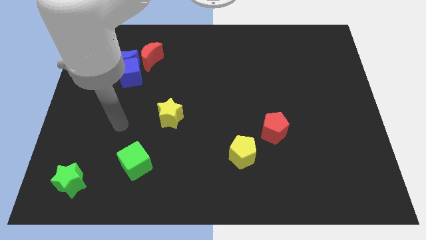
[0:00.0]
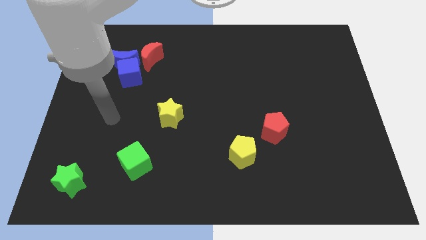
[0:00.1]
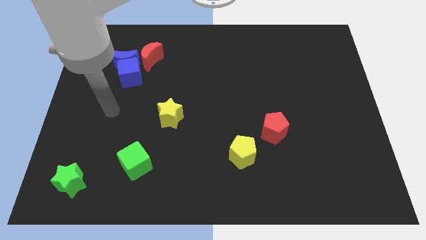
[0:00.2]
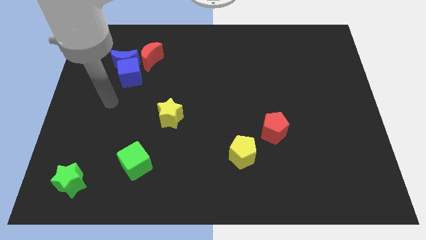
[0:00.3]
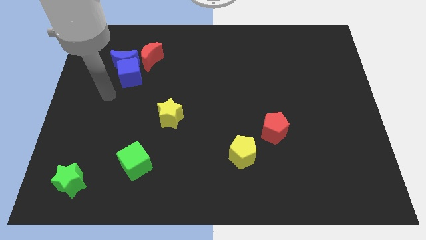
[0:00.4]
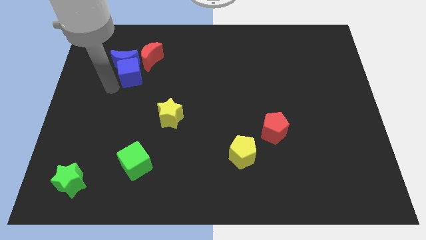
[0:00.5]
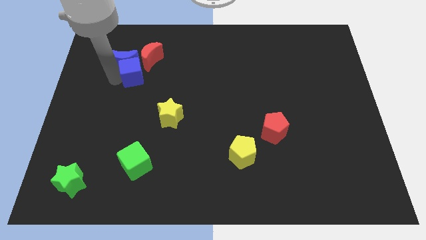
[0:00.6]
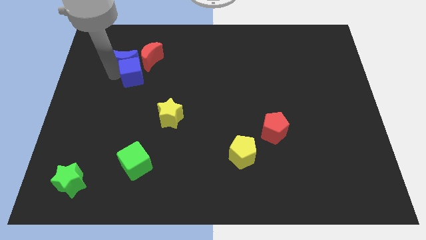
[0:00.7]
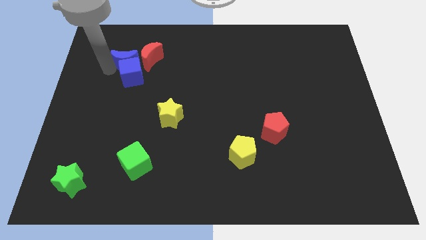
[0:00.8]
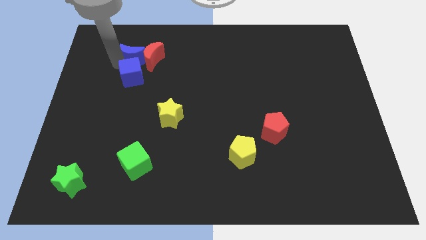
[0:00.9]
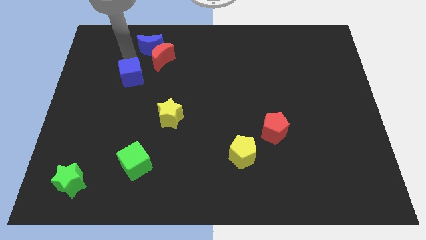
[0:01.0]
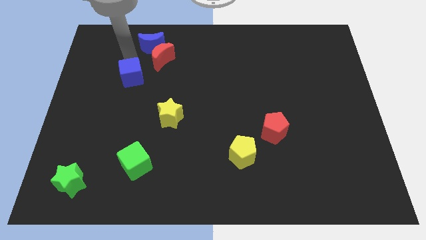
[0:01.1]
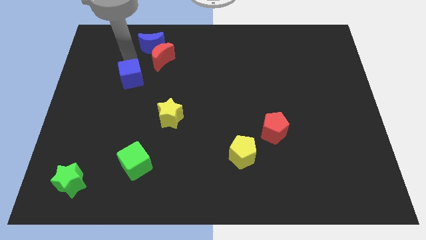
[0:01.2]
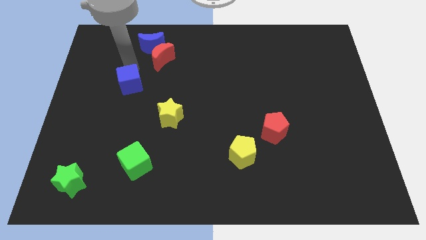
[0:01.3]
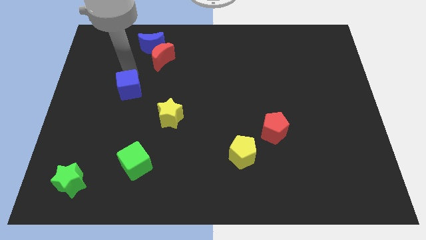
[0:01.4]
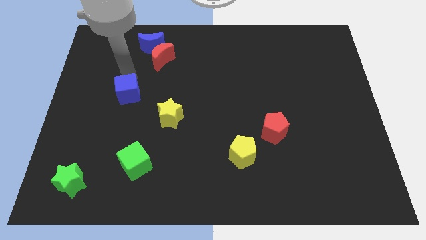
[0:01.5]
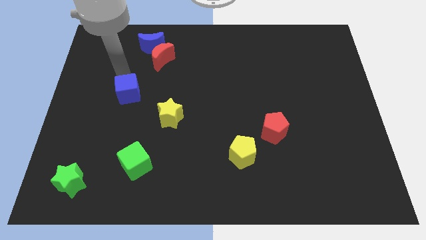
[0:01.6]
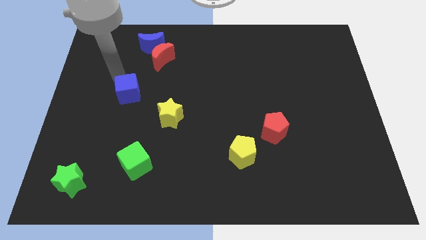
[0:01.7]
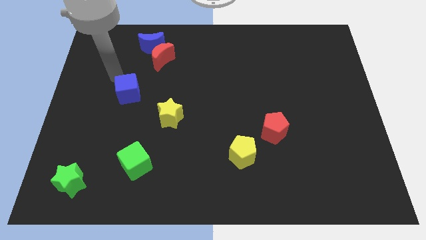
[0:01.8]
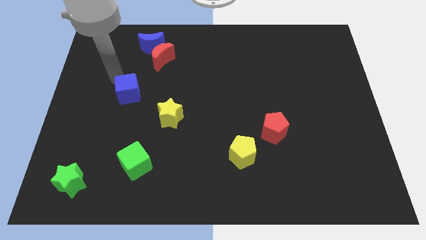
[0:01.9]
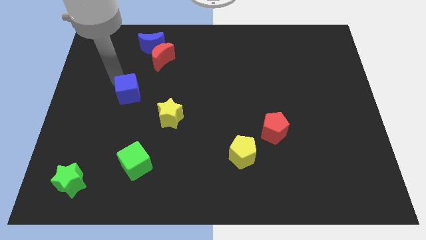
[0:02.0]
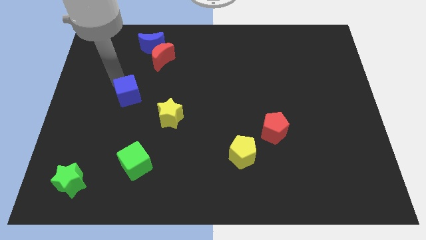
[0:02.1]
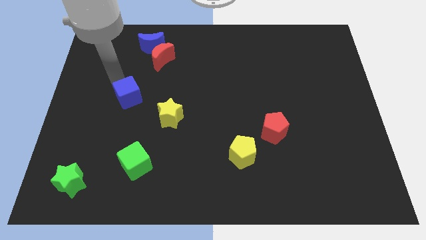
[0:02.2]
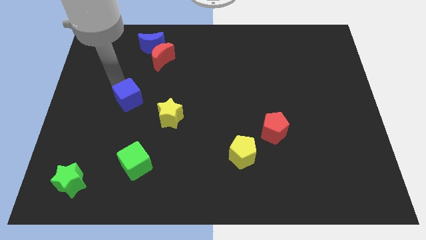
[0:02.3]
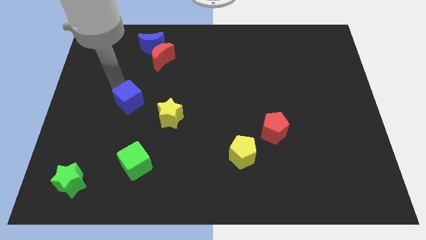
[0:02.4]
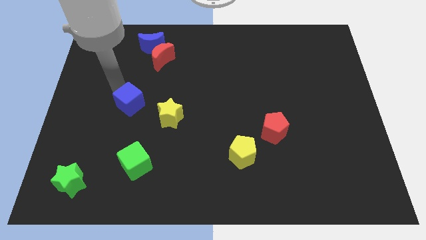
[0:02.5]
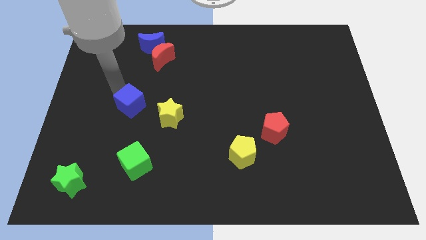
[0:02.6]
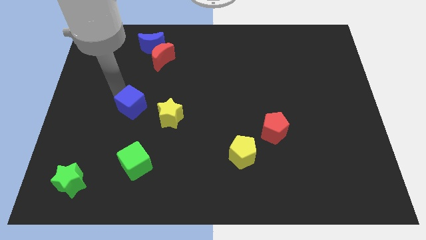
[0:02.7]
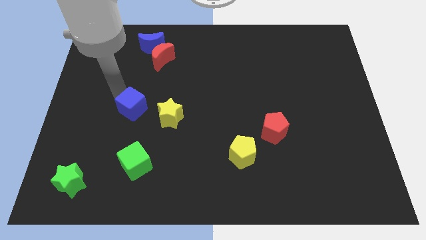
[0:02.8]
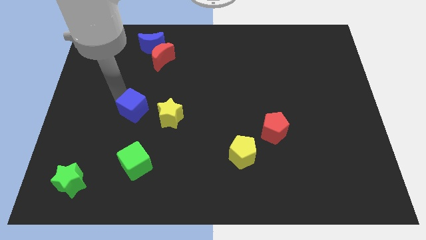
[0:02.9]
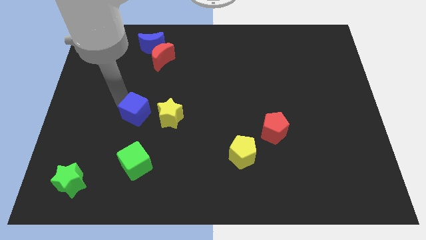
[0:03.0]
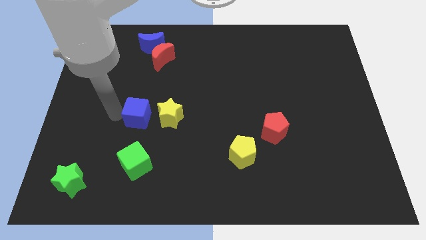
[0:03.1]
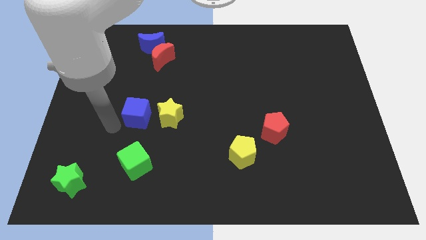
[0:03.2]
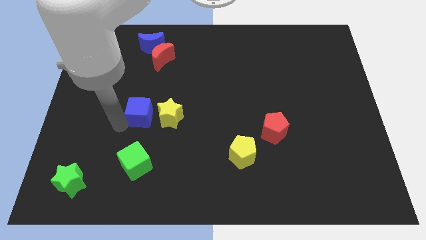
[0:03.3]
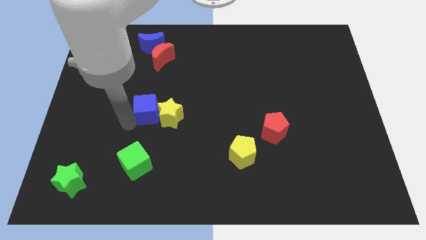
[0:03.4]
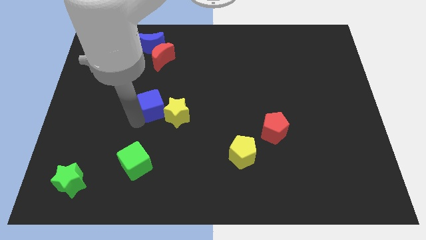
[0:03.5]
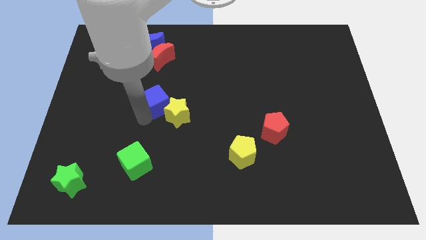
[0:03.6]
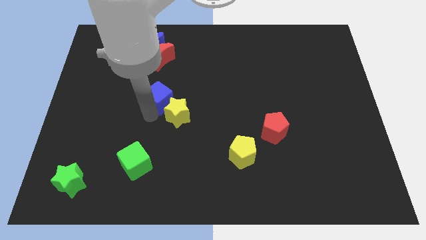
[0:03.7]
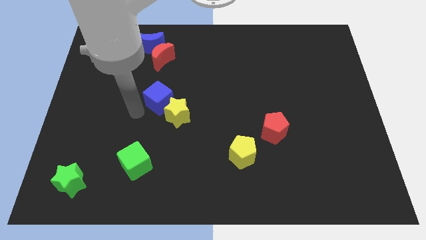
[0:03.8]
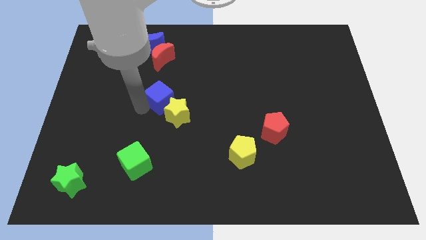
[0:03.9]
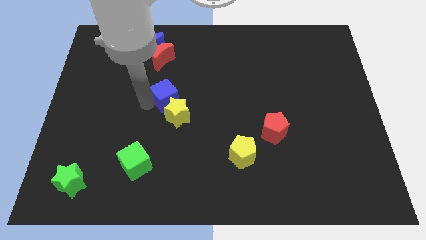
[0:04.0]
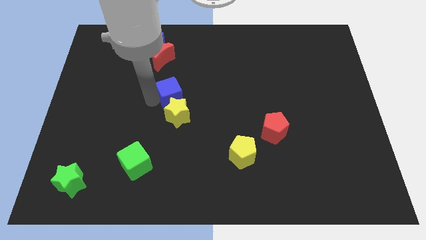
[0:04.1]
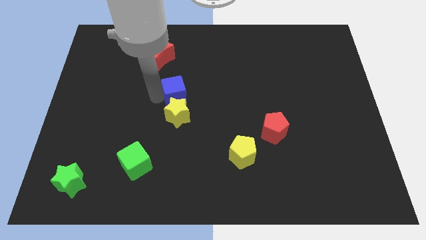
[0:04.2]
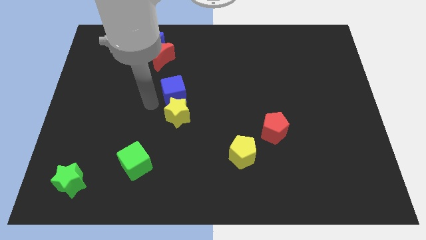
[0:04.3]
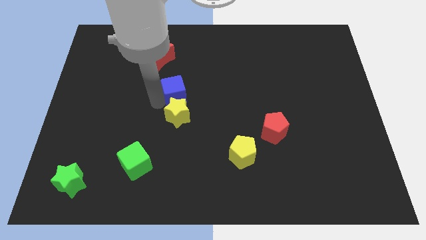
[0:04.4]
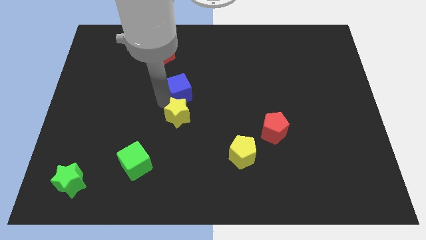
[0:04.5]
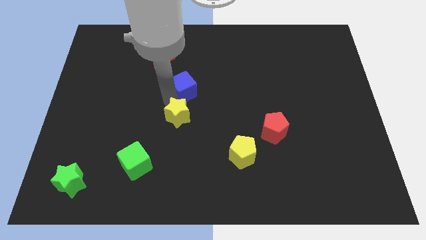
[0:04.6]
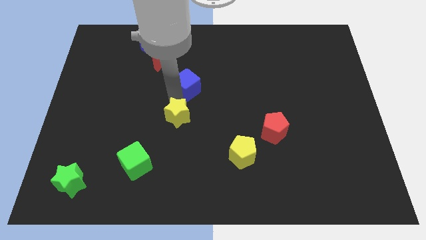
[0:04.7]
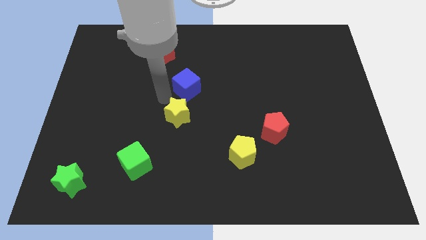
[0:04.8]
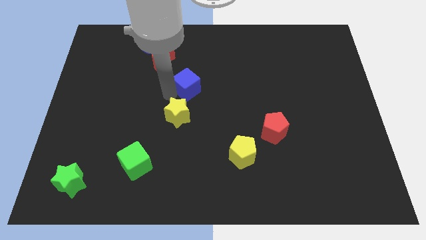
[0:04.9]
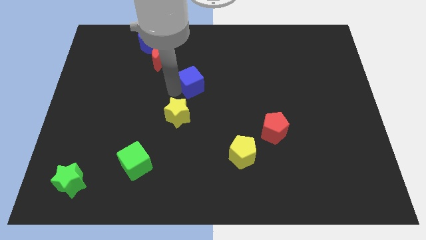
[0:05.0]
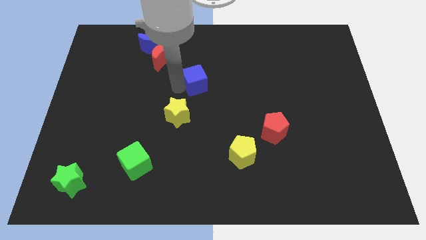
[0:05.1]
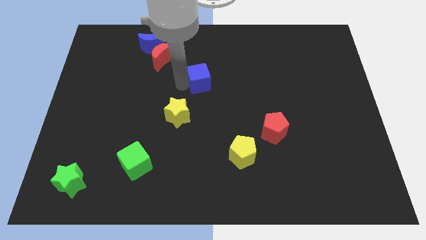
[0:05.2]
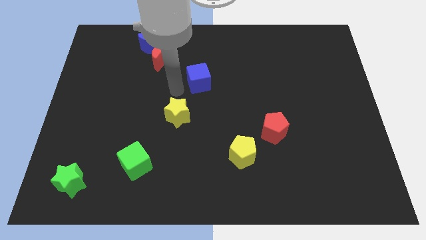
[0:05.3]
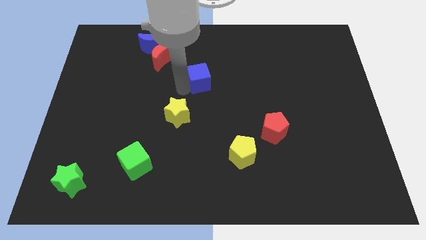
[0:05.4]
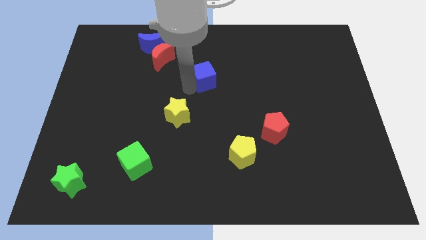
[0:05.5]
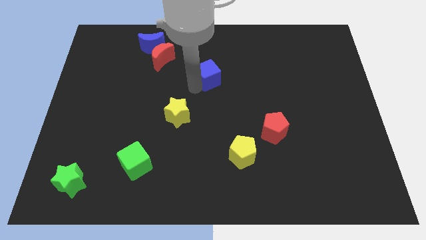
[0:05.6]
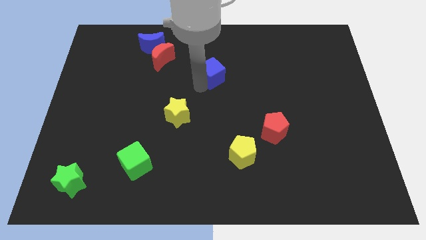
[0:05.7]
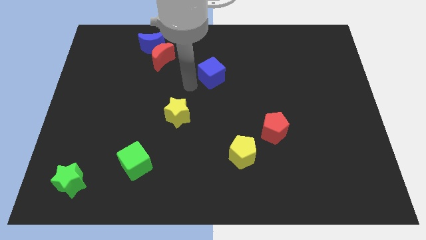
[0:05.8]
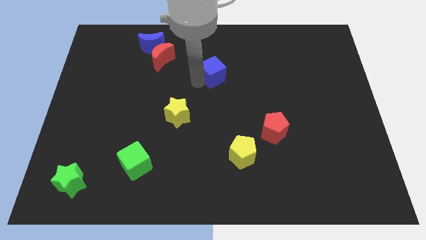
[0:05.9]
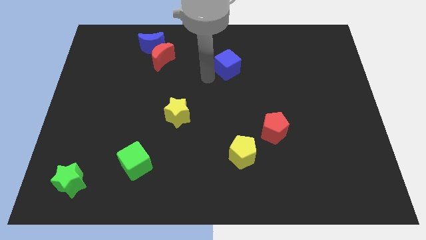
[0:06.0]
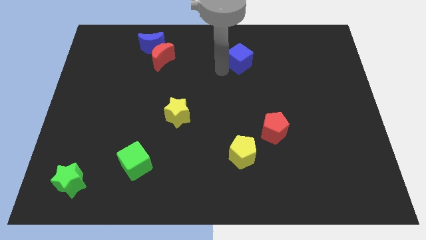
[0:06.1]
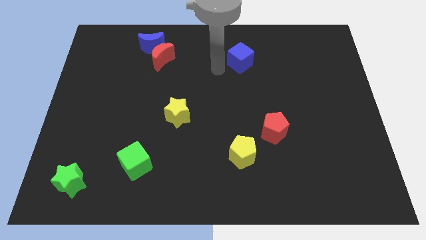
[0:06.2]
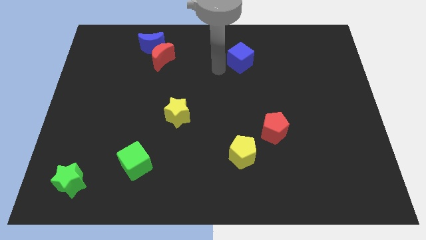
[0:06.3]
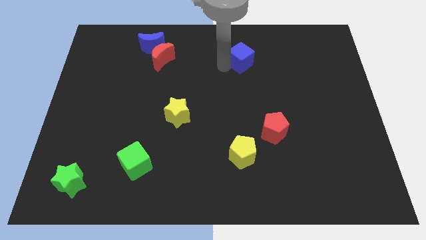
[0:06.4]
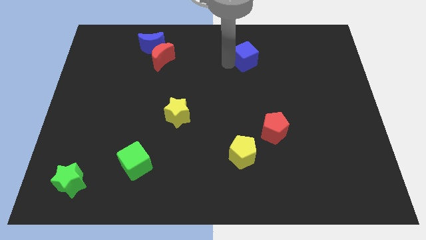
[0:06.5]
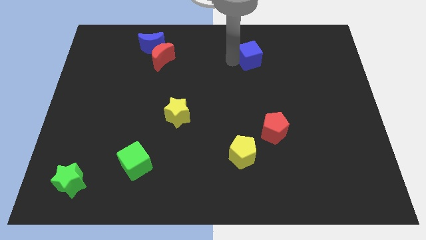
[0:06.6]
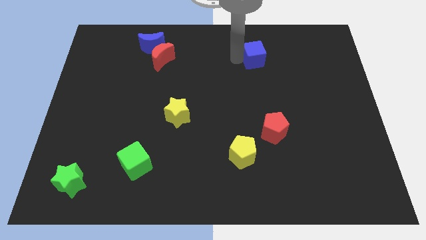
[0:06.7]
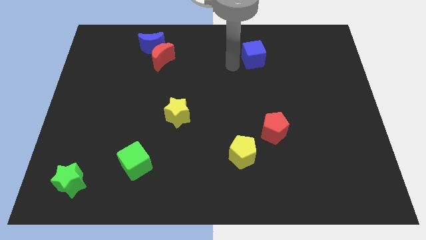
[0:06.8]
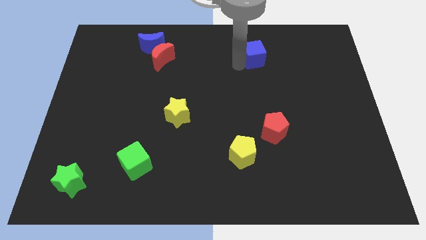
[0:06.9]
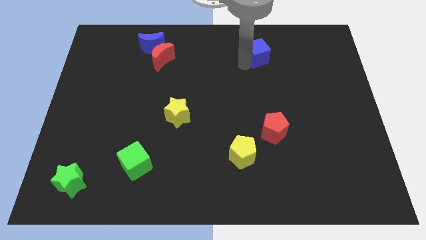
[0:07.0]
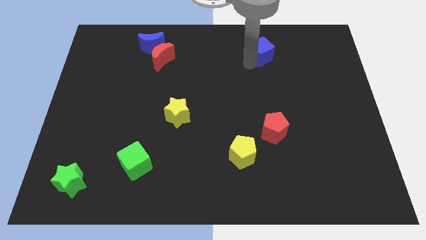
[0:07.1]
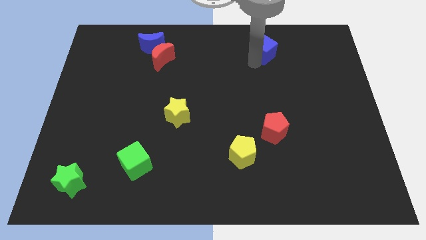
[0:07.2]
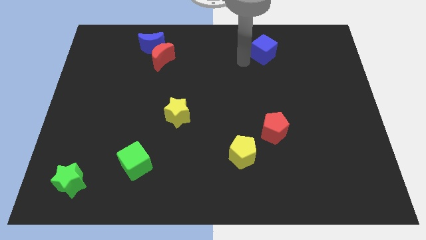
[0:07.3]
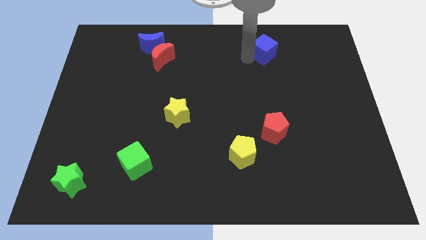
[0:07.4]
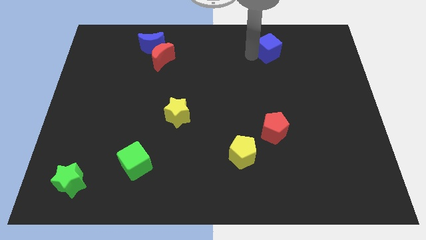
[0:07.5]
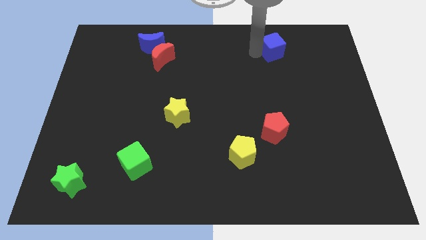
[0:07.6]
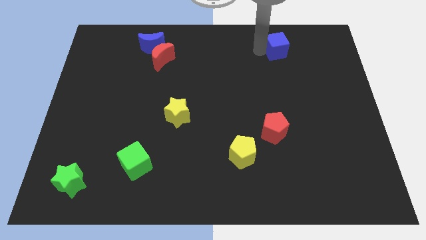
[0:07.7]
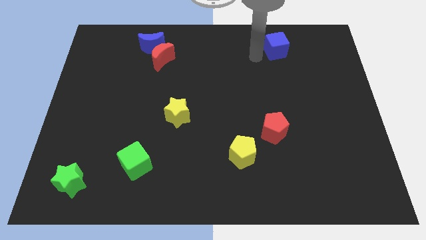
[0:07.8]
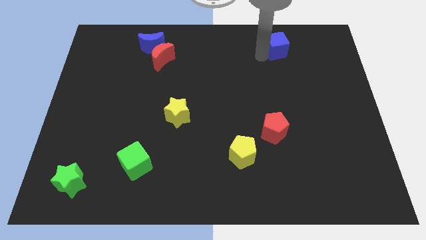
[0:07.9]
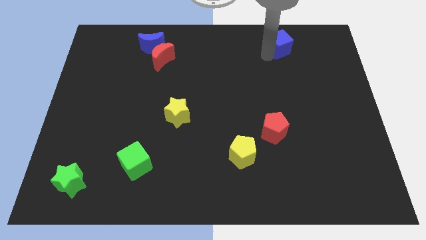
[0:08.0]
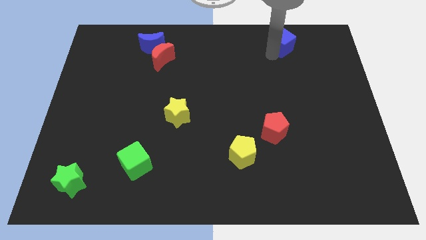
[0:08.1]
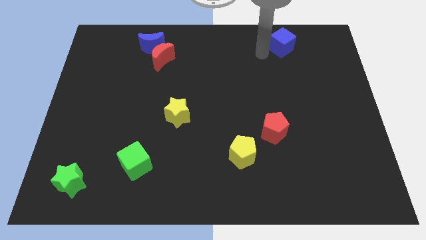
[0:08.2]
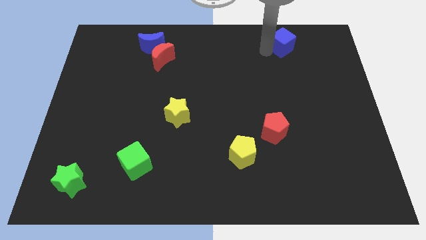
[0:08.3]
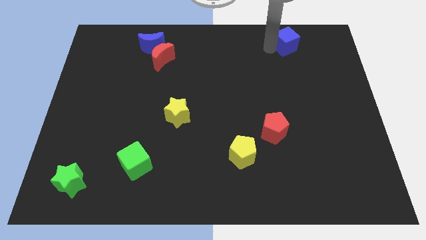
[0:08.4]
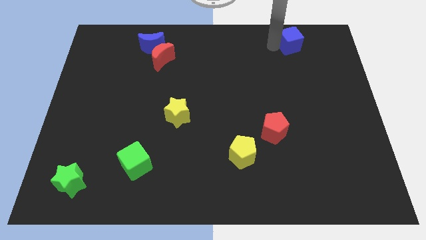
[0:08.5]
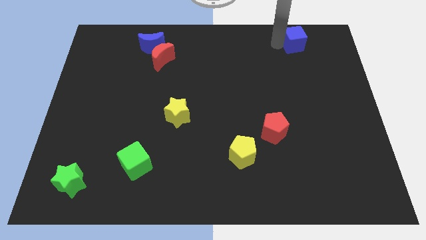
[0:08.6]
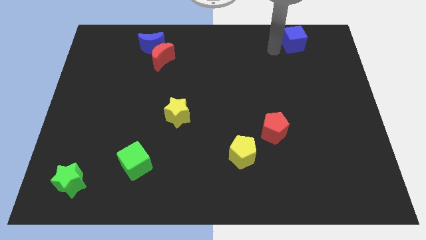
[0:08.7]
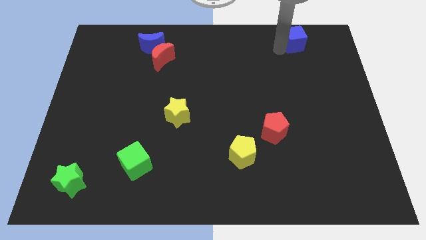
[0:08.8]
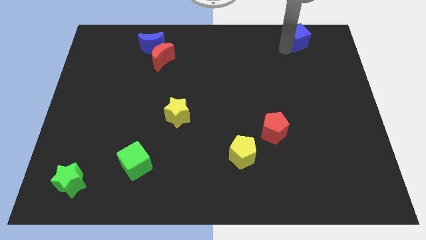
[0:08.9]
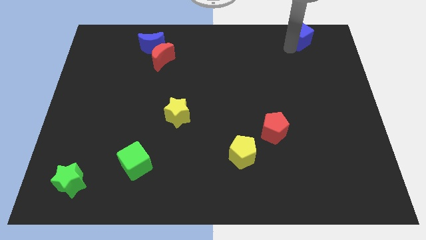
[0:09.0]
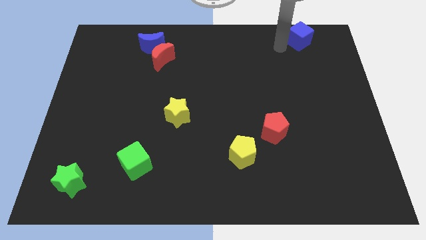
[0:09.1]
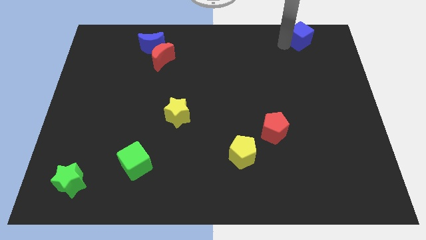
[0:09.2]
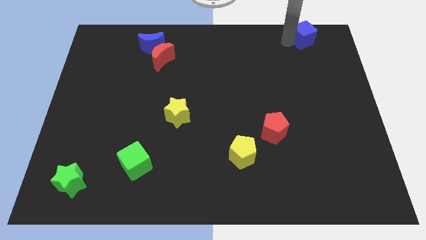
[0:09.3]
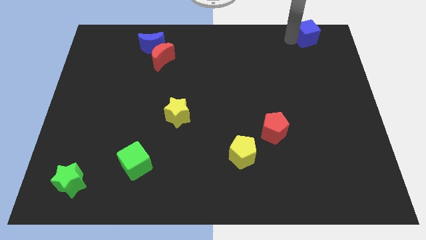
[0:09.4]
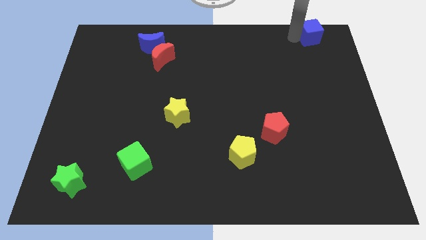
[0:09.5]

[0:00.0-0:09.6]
slide the blue cube to the upper right corner
